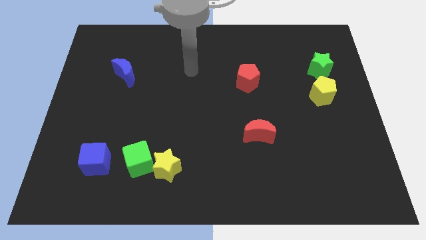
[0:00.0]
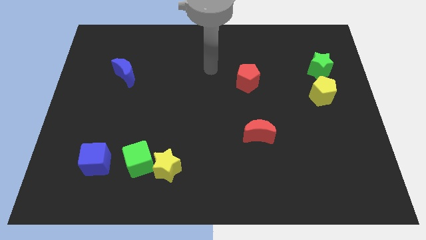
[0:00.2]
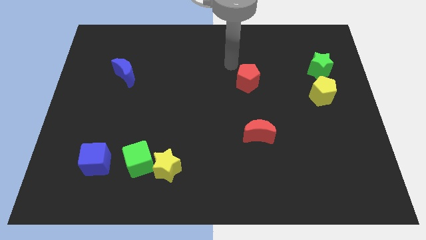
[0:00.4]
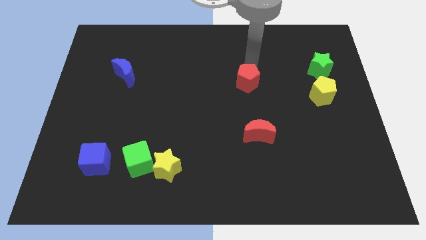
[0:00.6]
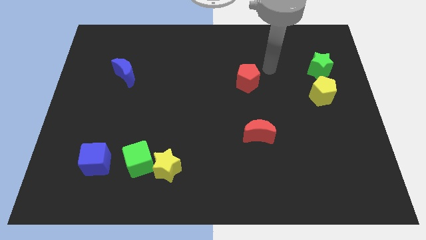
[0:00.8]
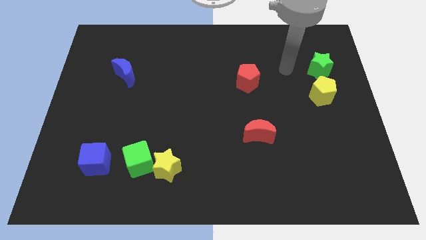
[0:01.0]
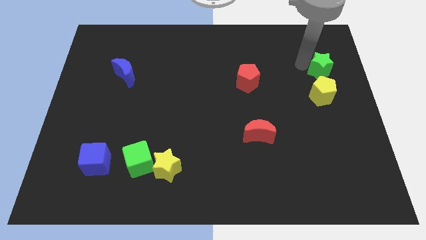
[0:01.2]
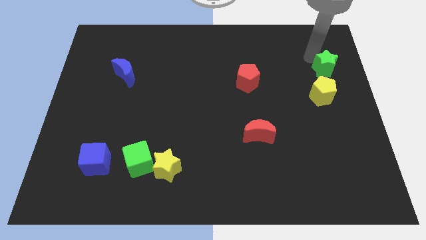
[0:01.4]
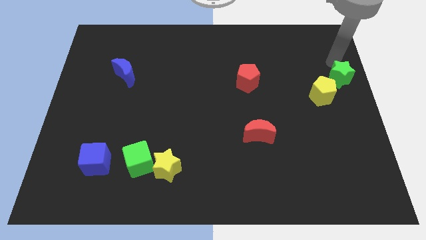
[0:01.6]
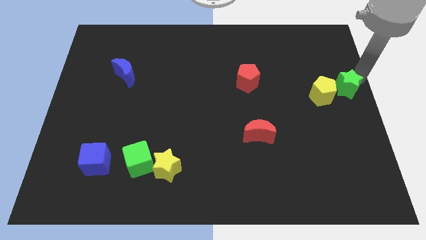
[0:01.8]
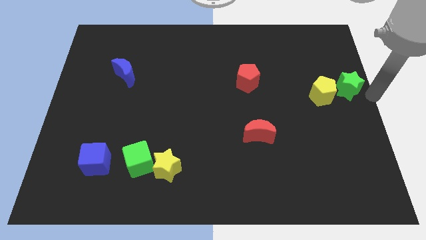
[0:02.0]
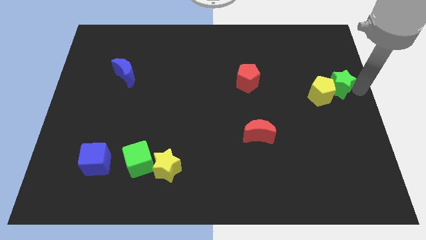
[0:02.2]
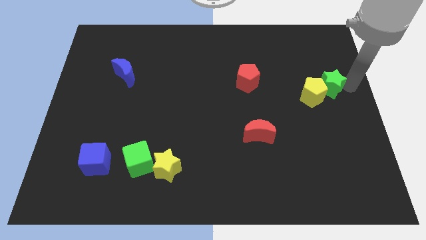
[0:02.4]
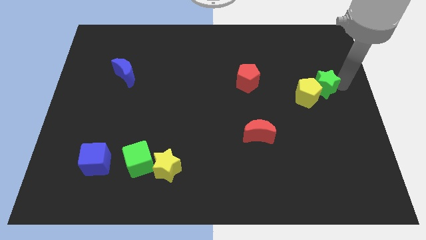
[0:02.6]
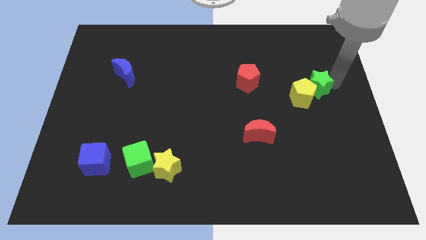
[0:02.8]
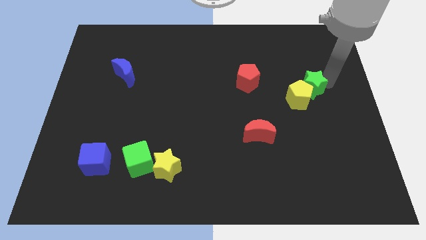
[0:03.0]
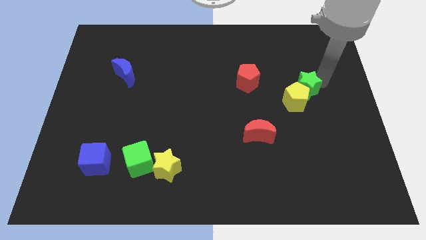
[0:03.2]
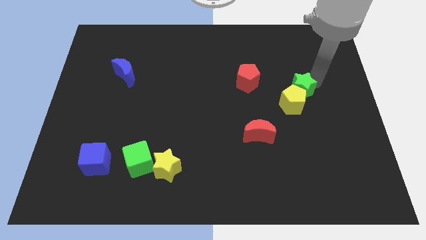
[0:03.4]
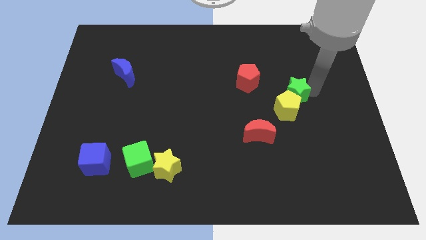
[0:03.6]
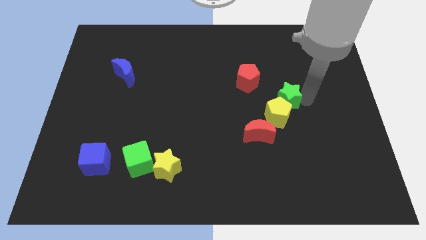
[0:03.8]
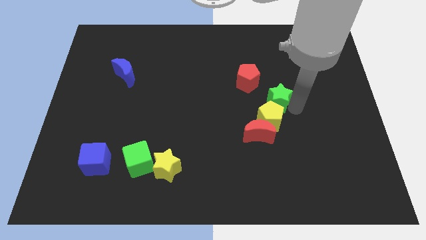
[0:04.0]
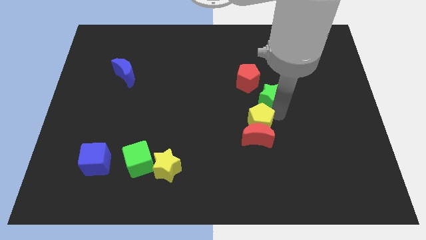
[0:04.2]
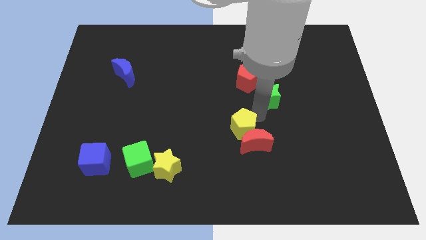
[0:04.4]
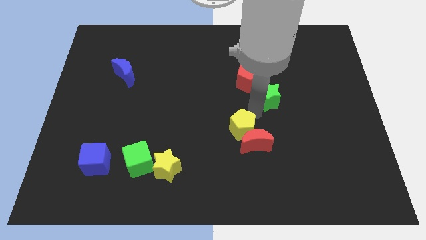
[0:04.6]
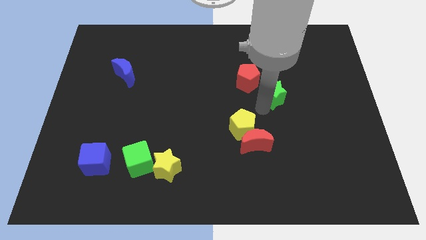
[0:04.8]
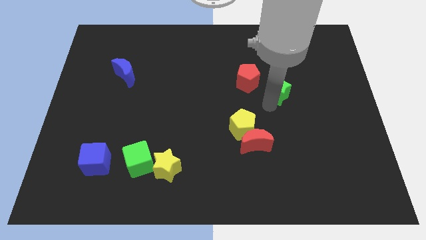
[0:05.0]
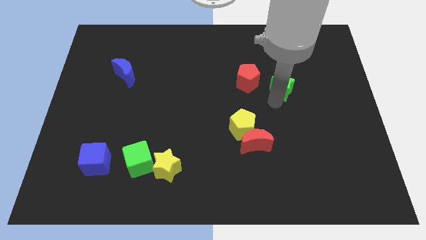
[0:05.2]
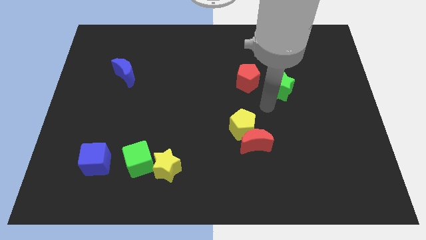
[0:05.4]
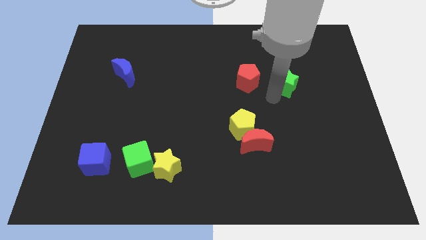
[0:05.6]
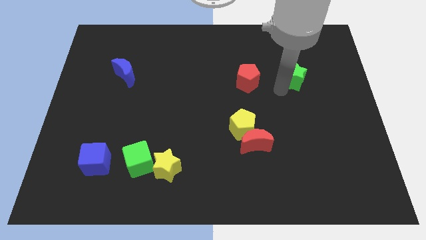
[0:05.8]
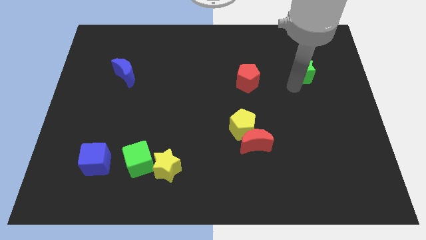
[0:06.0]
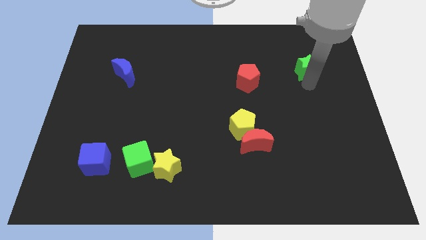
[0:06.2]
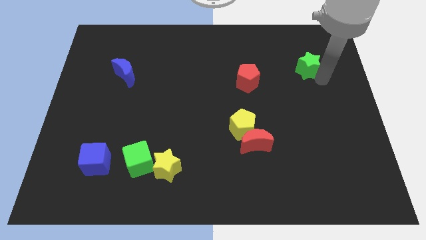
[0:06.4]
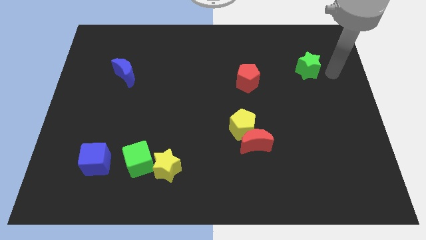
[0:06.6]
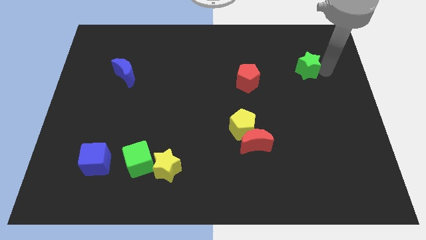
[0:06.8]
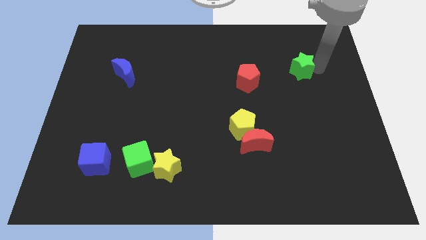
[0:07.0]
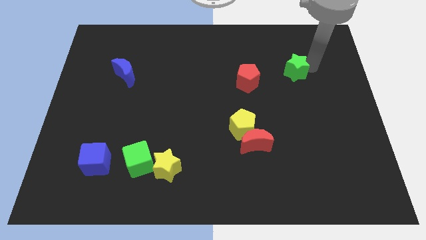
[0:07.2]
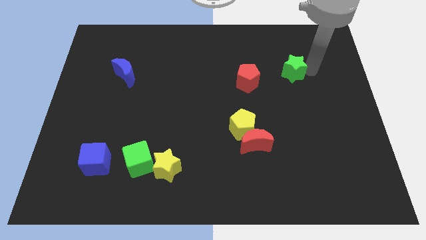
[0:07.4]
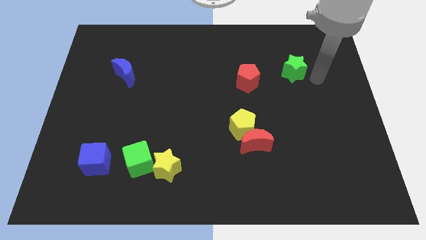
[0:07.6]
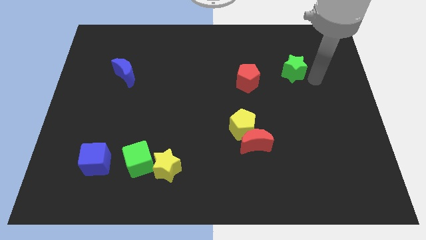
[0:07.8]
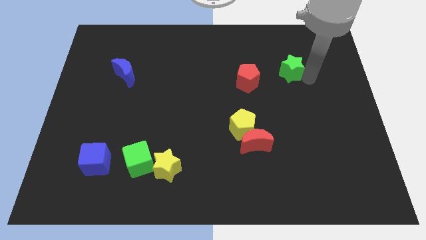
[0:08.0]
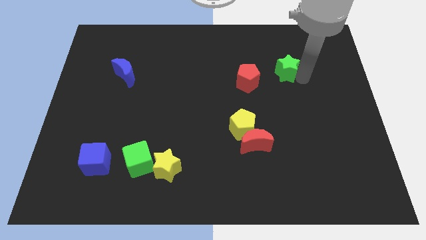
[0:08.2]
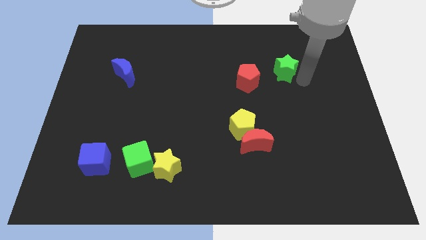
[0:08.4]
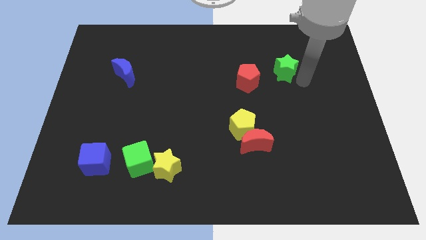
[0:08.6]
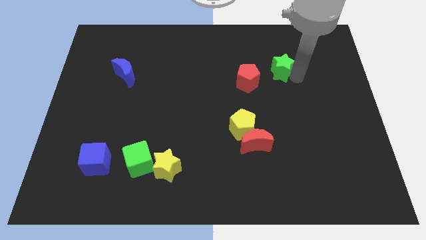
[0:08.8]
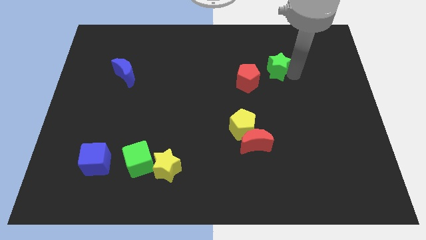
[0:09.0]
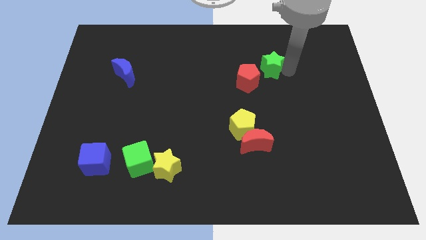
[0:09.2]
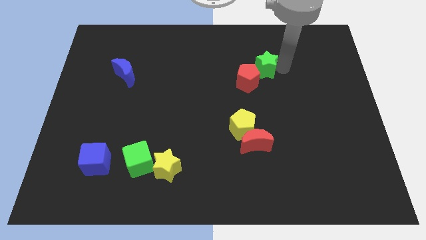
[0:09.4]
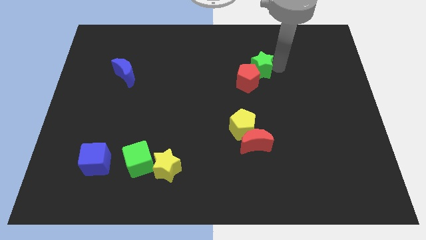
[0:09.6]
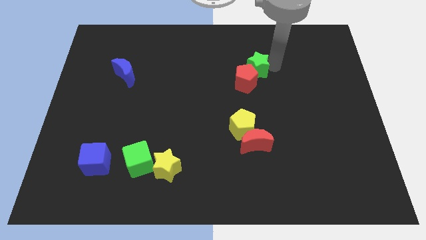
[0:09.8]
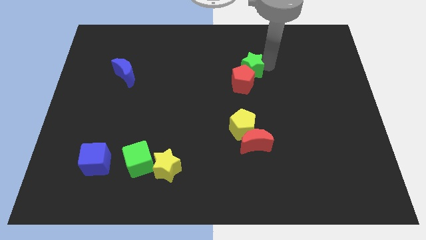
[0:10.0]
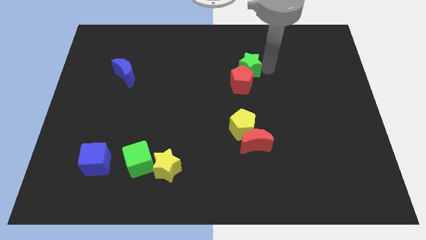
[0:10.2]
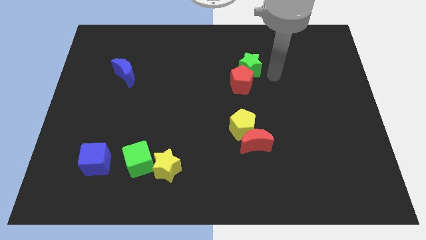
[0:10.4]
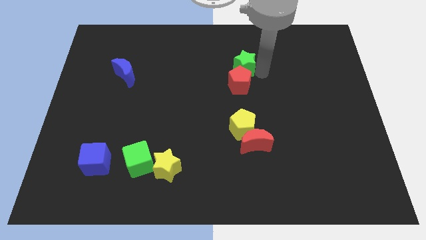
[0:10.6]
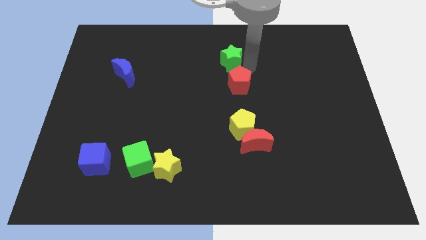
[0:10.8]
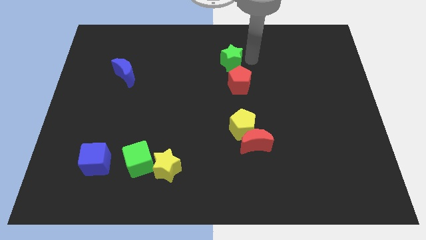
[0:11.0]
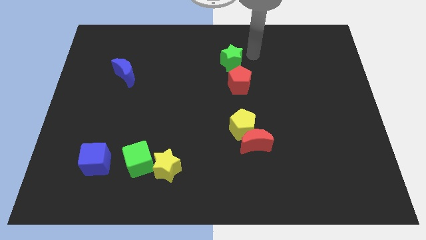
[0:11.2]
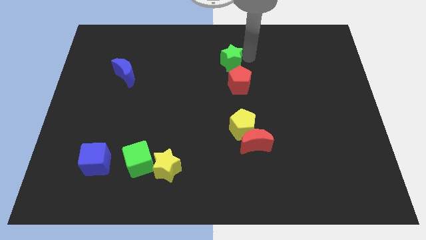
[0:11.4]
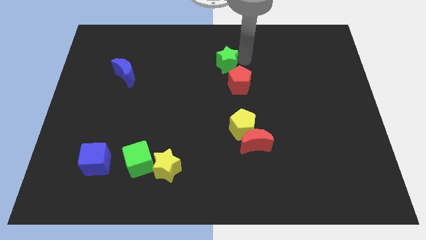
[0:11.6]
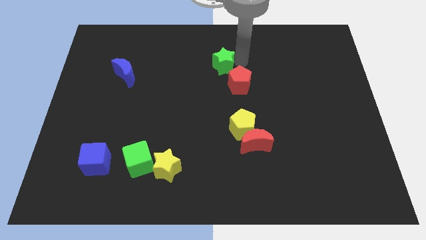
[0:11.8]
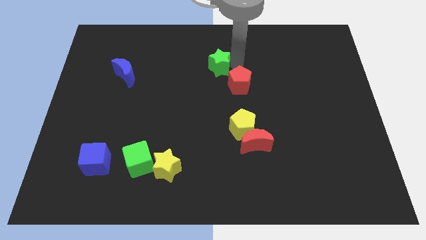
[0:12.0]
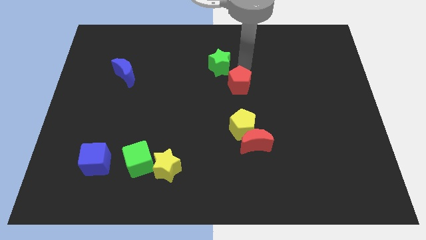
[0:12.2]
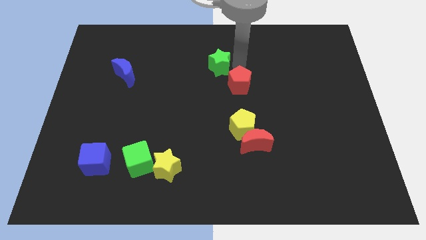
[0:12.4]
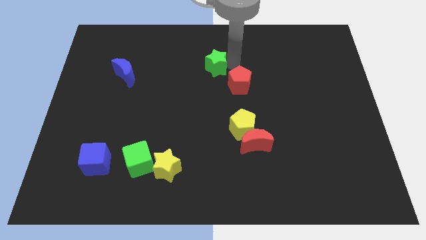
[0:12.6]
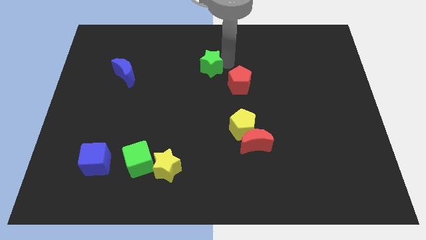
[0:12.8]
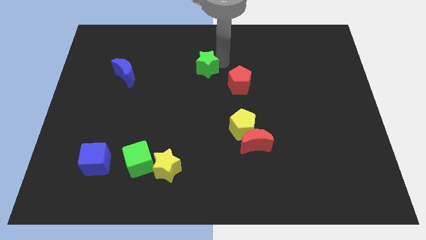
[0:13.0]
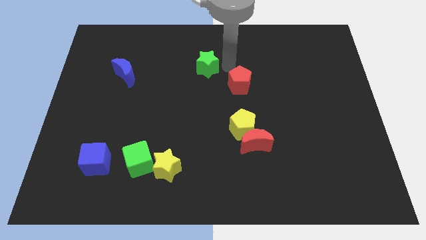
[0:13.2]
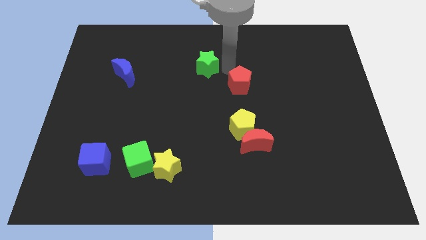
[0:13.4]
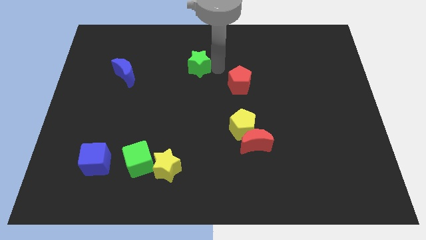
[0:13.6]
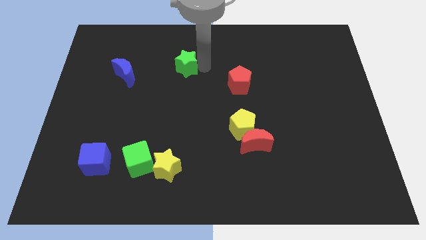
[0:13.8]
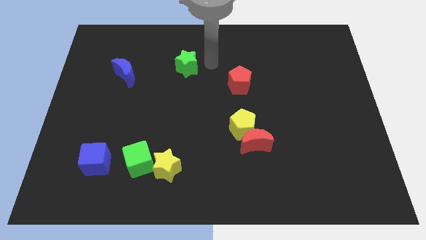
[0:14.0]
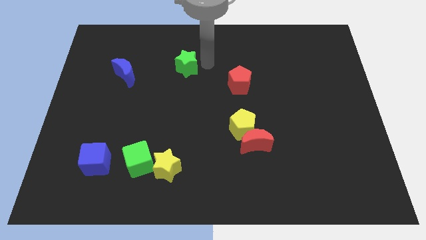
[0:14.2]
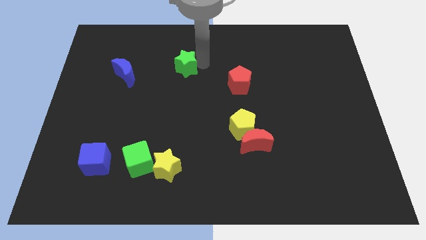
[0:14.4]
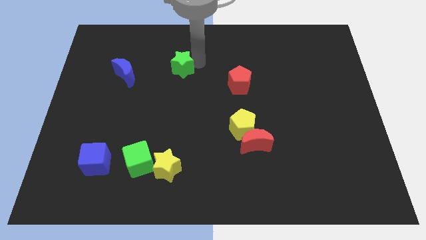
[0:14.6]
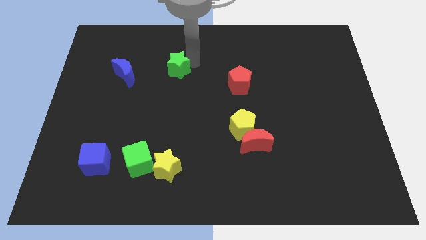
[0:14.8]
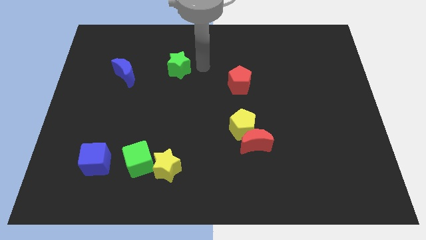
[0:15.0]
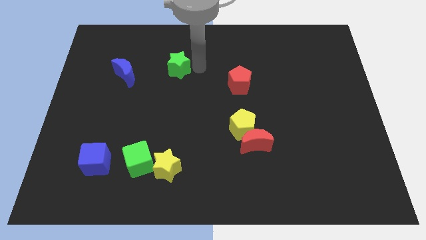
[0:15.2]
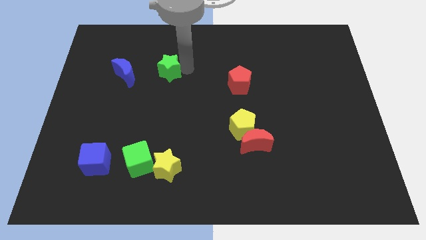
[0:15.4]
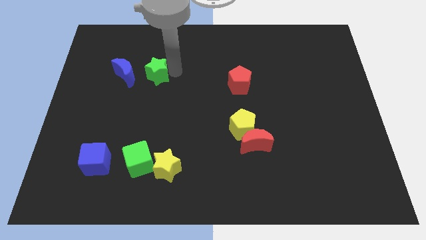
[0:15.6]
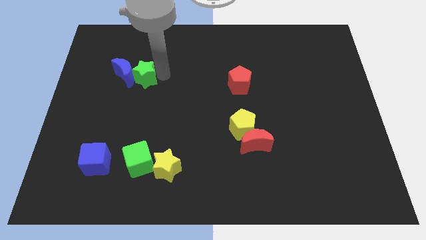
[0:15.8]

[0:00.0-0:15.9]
move the green star close to the blue moon
